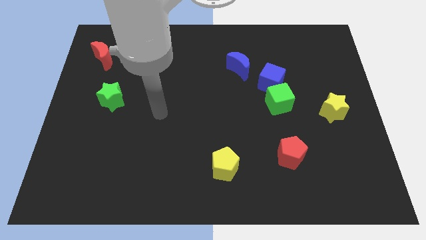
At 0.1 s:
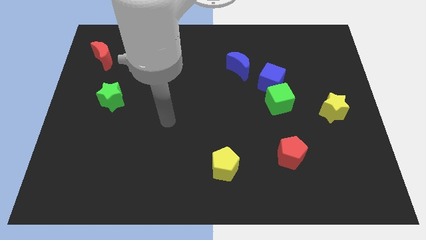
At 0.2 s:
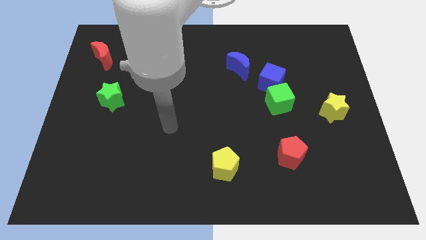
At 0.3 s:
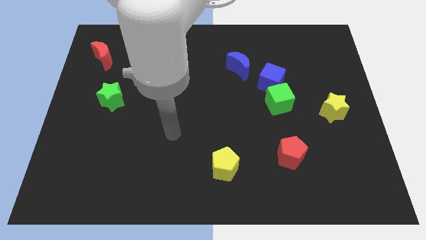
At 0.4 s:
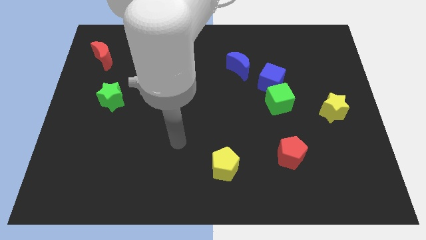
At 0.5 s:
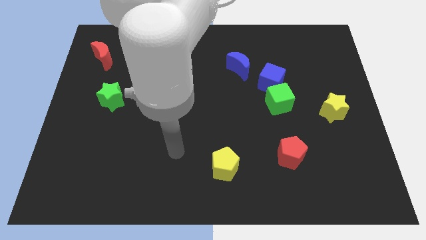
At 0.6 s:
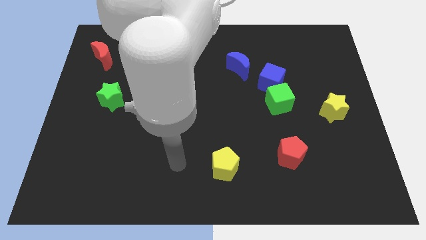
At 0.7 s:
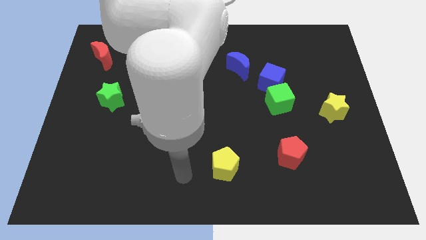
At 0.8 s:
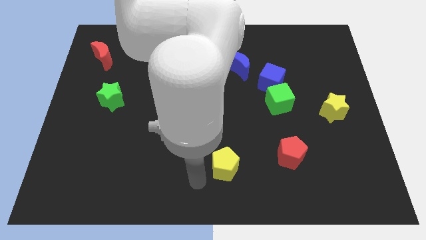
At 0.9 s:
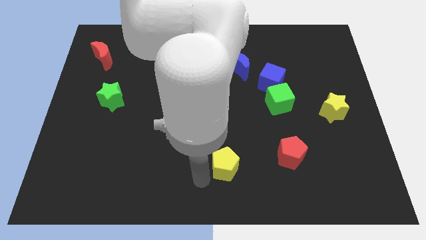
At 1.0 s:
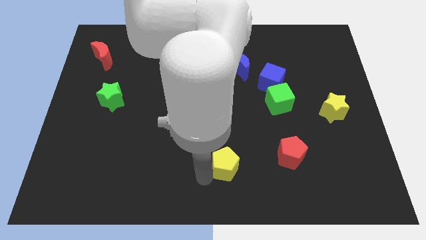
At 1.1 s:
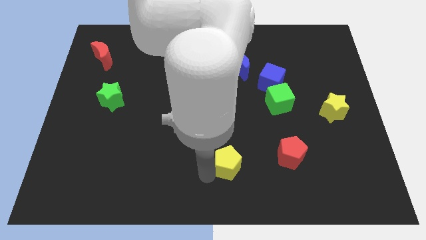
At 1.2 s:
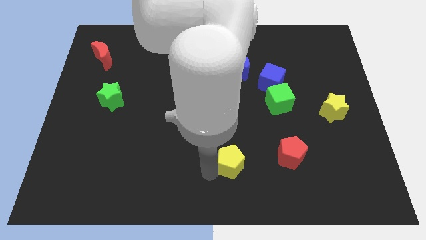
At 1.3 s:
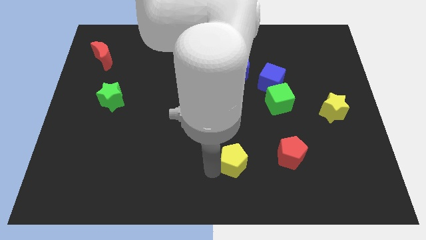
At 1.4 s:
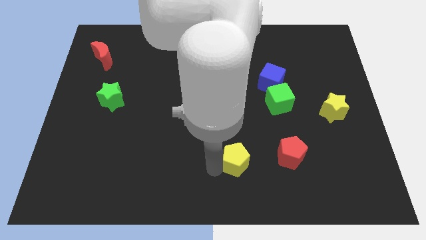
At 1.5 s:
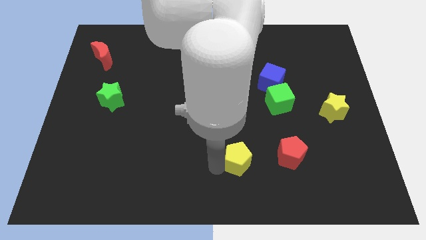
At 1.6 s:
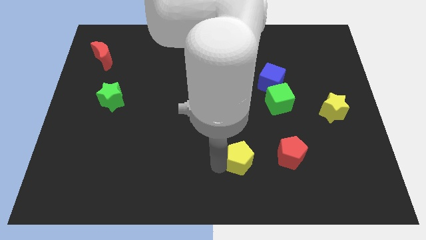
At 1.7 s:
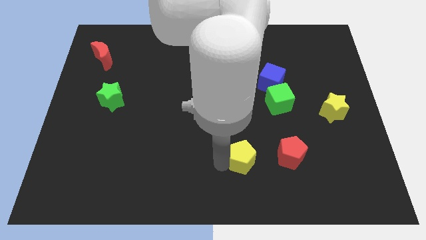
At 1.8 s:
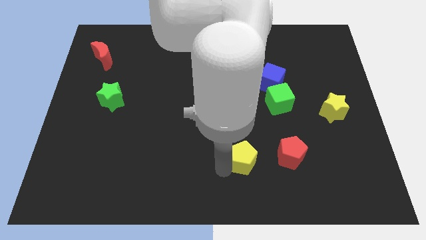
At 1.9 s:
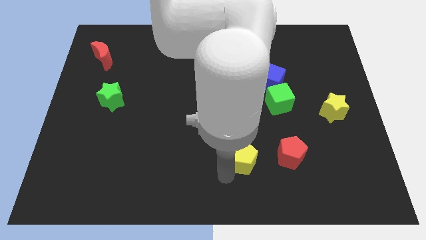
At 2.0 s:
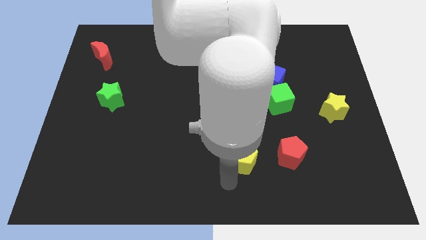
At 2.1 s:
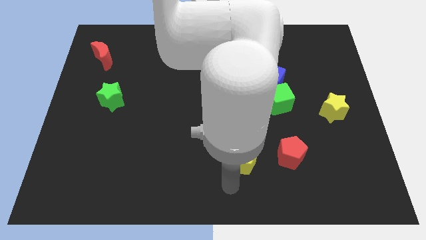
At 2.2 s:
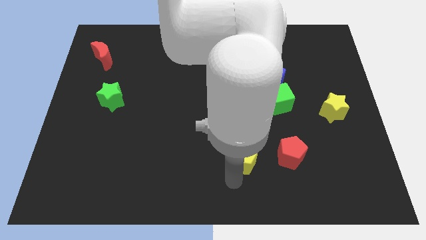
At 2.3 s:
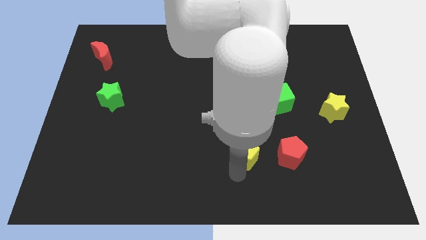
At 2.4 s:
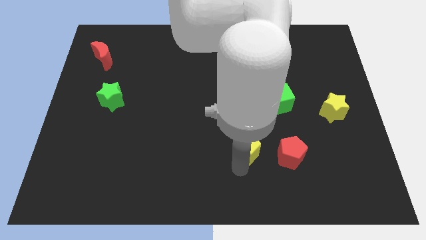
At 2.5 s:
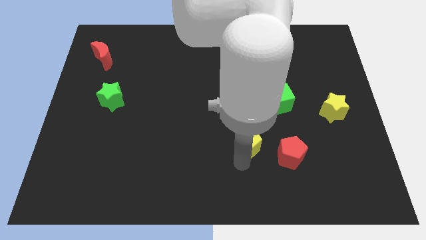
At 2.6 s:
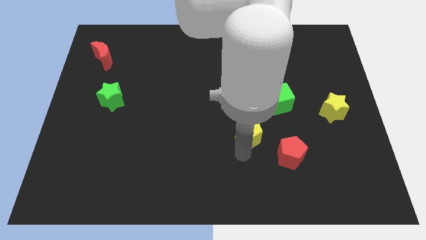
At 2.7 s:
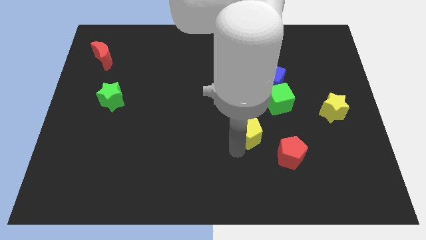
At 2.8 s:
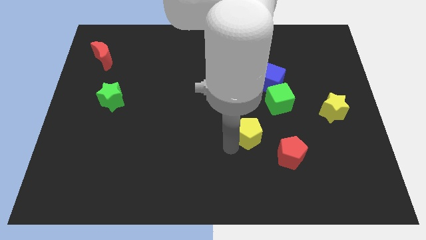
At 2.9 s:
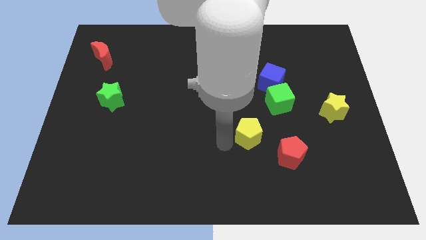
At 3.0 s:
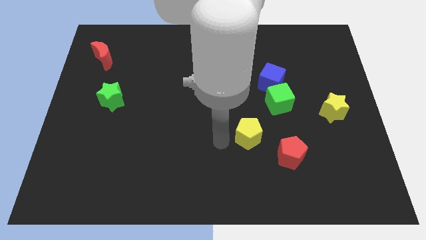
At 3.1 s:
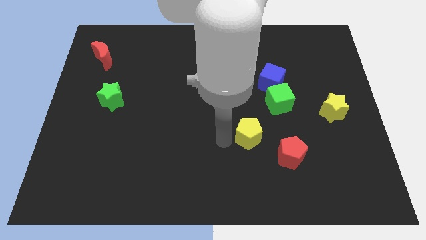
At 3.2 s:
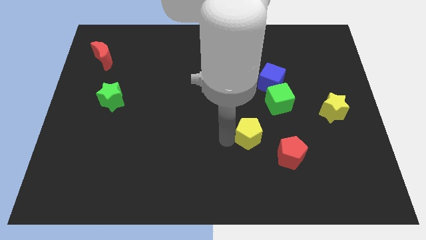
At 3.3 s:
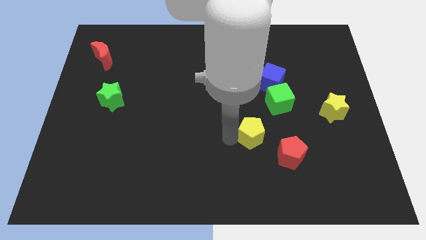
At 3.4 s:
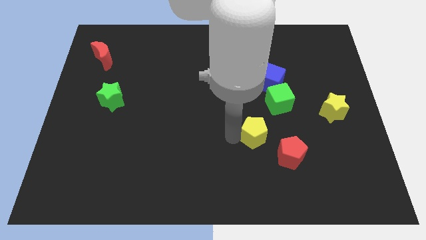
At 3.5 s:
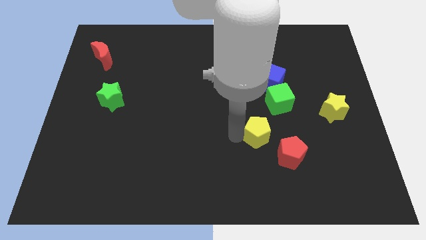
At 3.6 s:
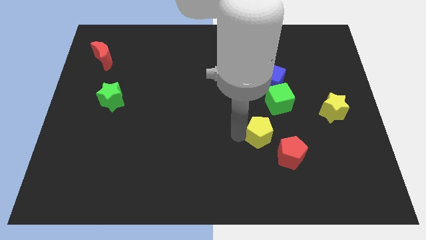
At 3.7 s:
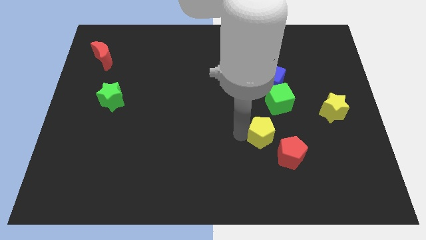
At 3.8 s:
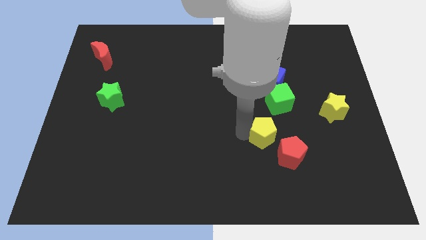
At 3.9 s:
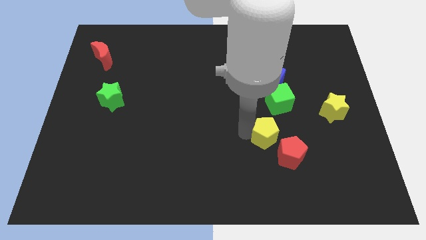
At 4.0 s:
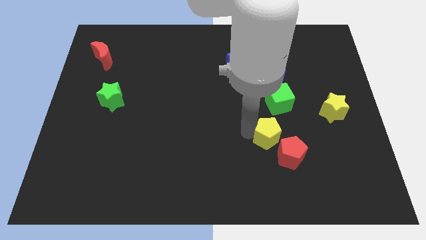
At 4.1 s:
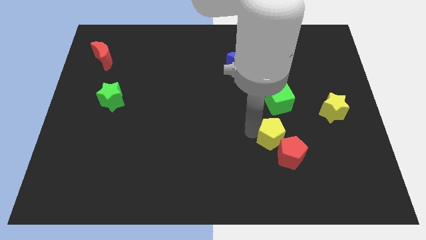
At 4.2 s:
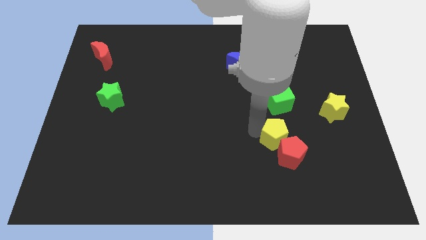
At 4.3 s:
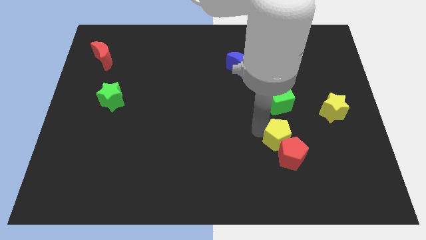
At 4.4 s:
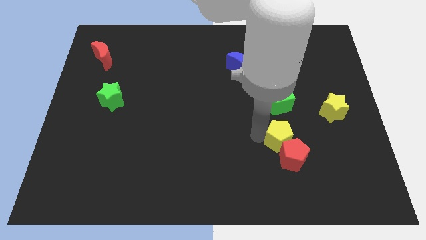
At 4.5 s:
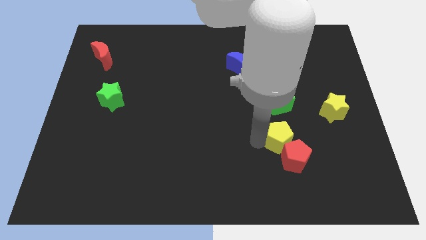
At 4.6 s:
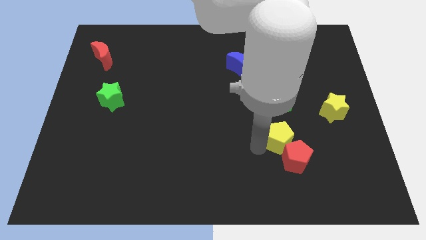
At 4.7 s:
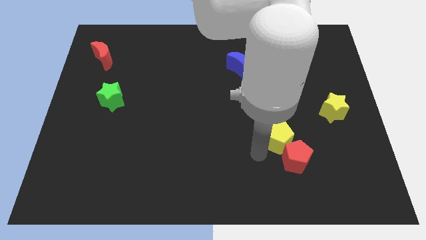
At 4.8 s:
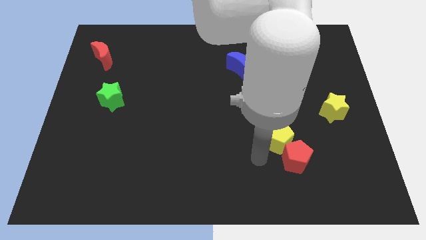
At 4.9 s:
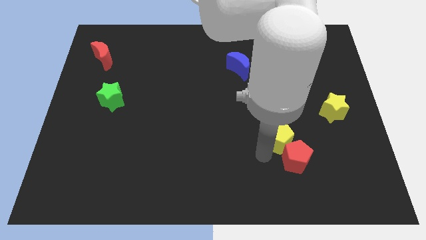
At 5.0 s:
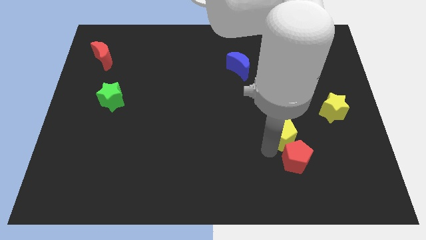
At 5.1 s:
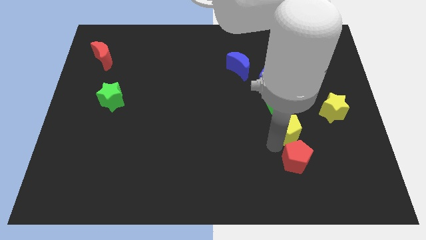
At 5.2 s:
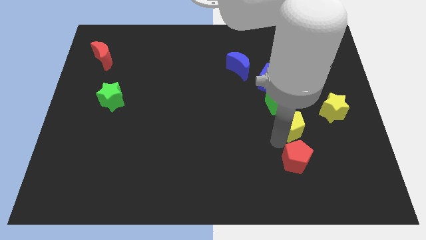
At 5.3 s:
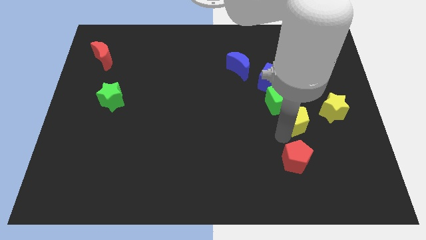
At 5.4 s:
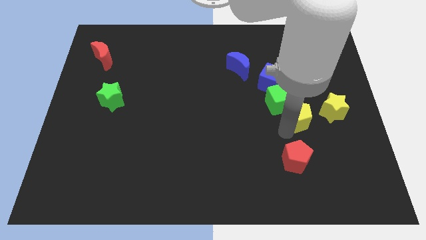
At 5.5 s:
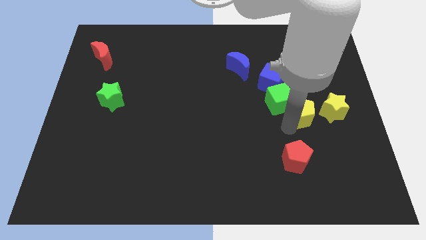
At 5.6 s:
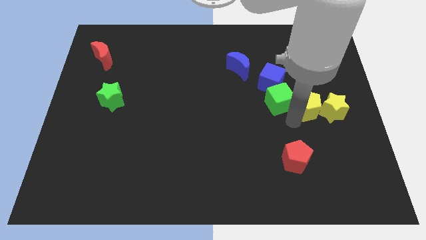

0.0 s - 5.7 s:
move the yellow pentagon close to the yellow star

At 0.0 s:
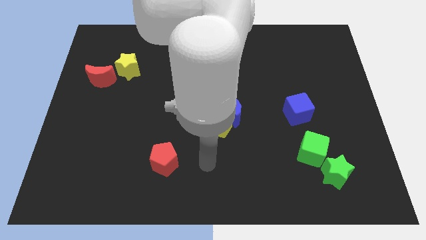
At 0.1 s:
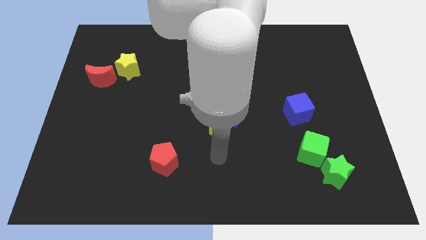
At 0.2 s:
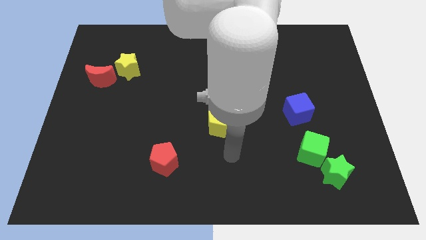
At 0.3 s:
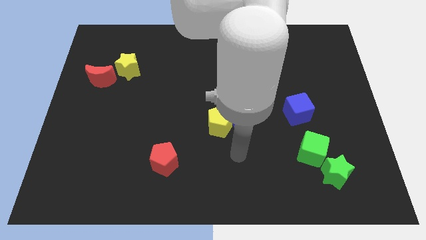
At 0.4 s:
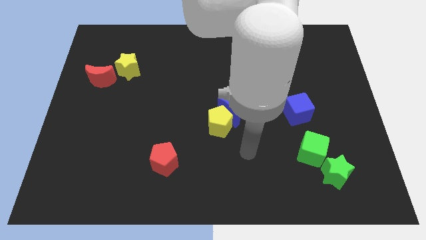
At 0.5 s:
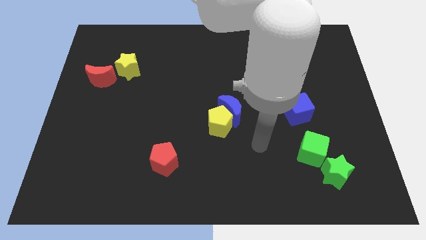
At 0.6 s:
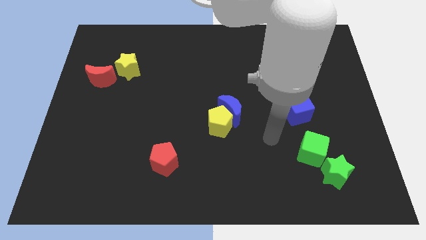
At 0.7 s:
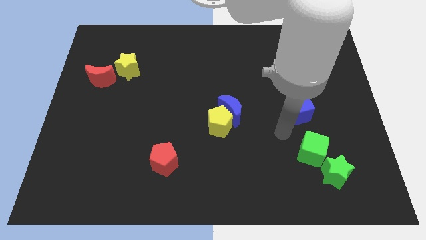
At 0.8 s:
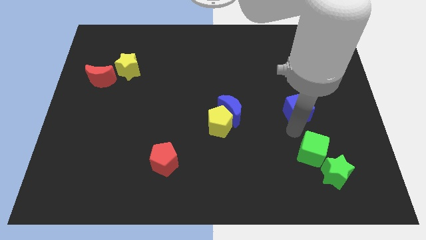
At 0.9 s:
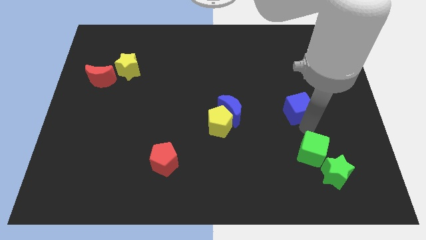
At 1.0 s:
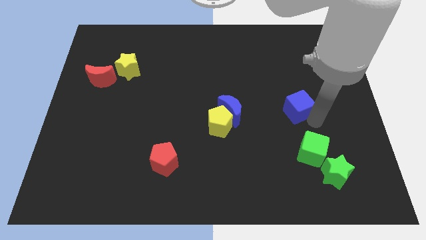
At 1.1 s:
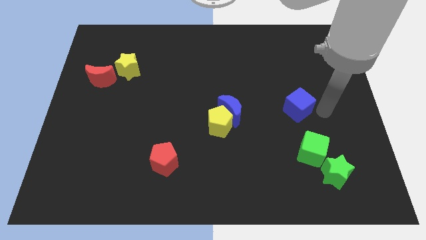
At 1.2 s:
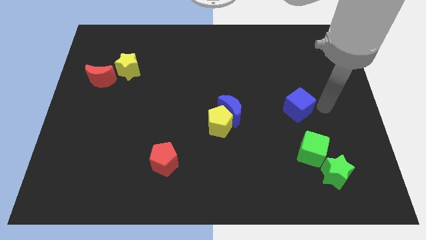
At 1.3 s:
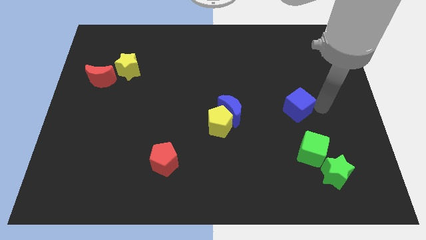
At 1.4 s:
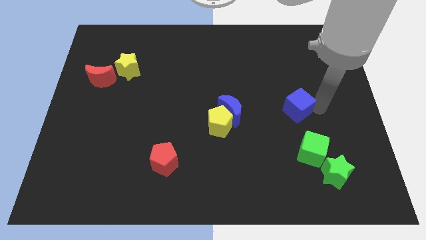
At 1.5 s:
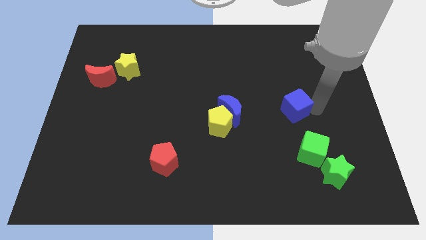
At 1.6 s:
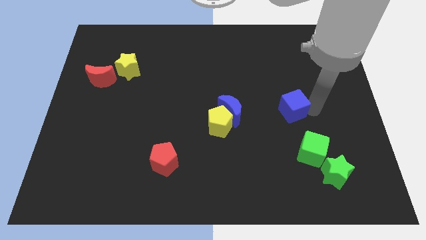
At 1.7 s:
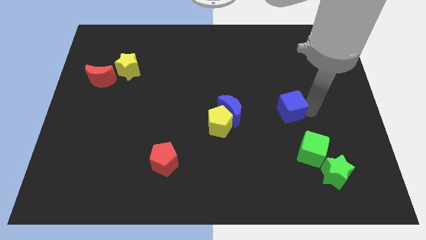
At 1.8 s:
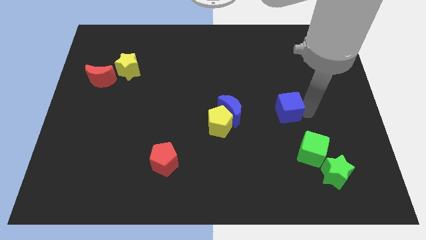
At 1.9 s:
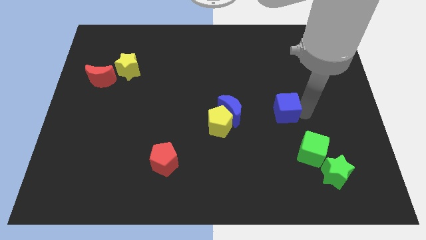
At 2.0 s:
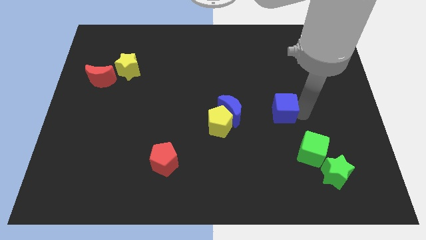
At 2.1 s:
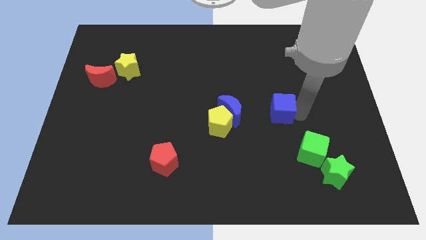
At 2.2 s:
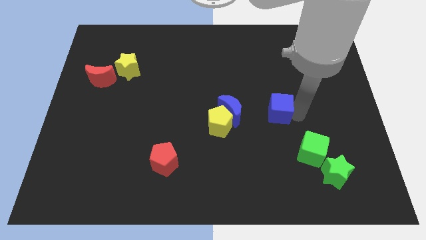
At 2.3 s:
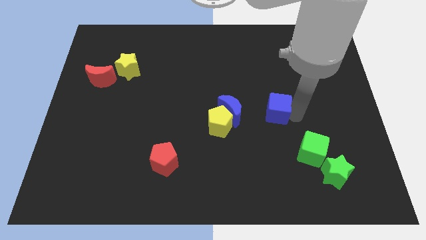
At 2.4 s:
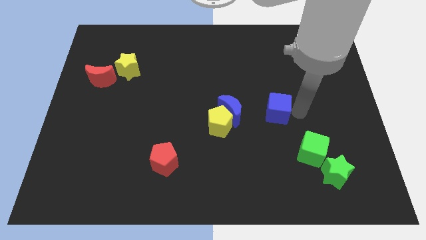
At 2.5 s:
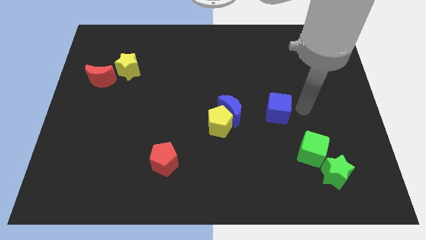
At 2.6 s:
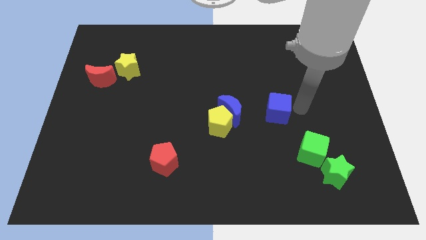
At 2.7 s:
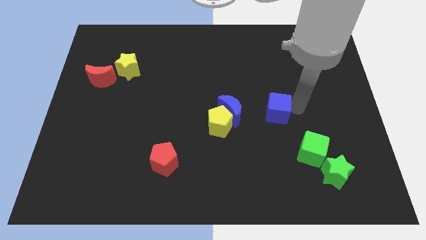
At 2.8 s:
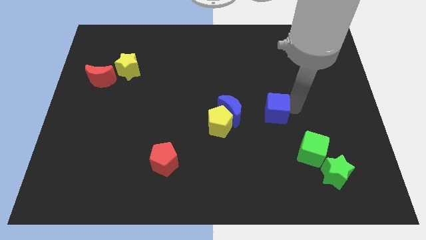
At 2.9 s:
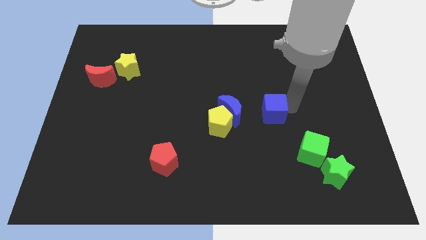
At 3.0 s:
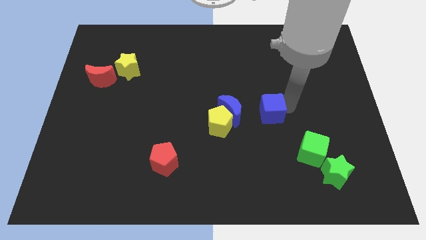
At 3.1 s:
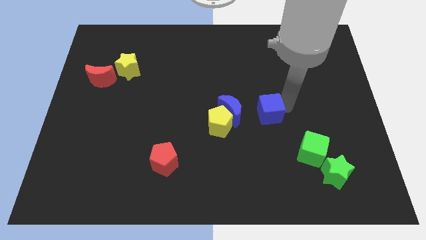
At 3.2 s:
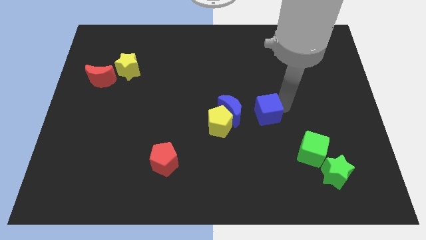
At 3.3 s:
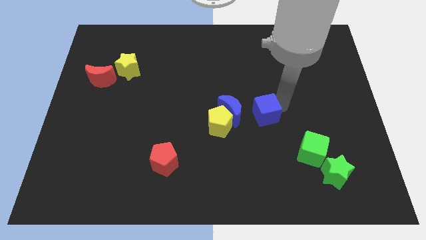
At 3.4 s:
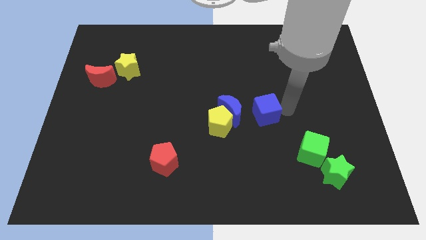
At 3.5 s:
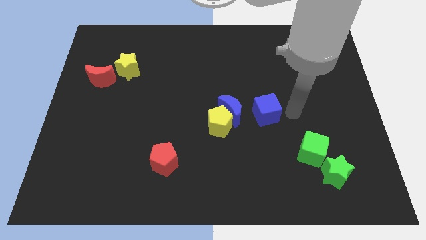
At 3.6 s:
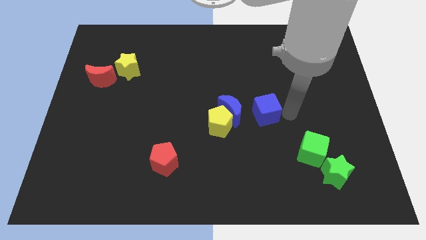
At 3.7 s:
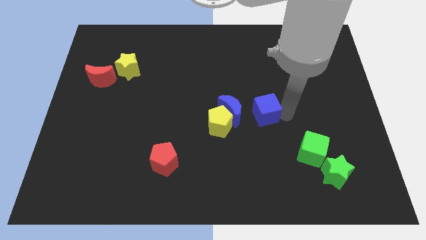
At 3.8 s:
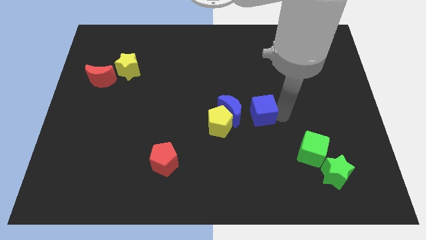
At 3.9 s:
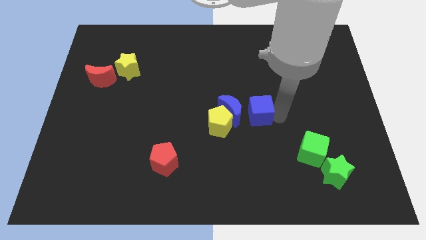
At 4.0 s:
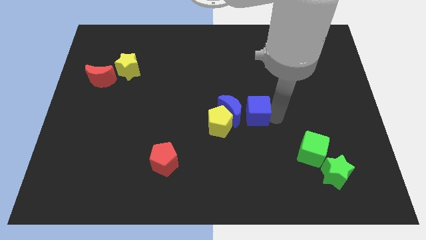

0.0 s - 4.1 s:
move the blue cube towards the blue moon
